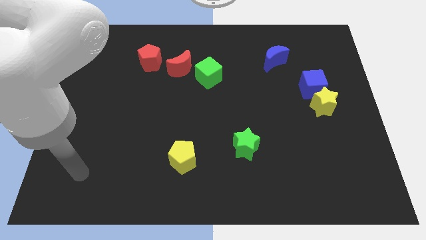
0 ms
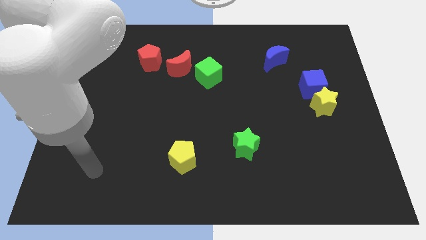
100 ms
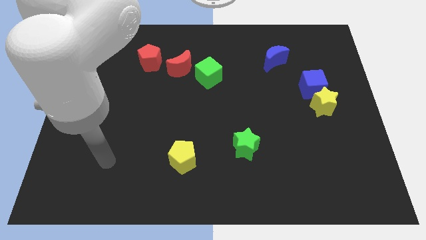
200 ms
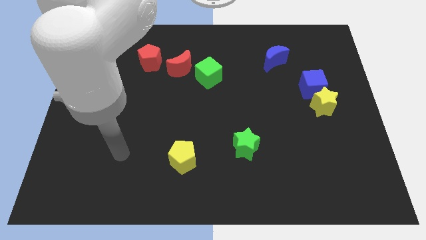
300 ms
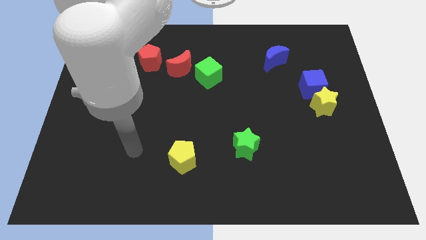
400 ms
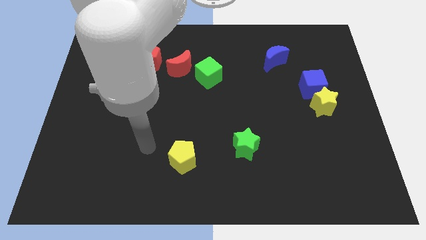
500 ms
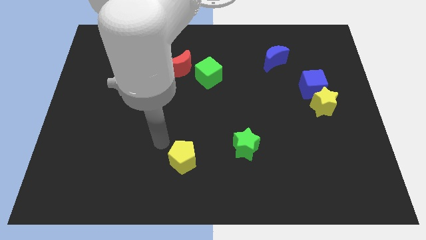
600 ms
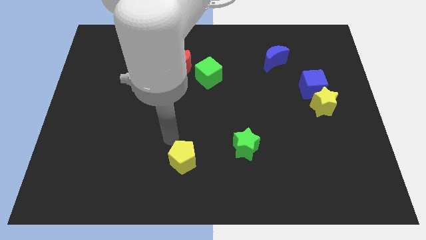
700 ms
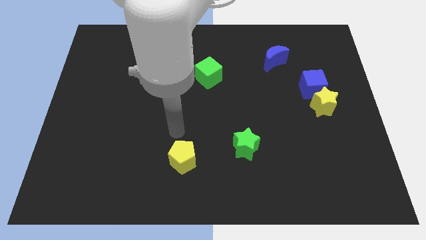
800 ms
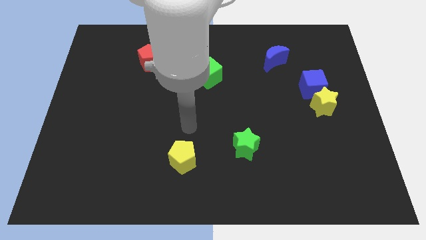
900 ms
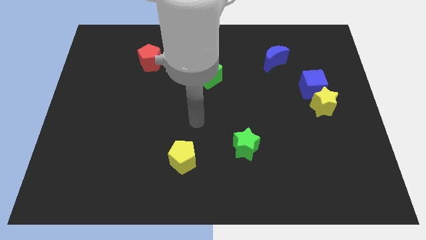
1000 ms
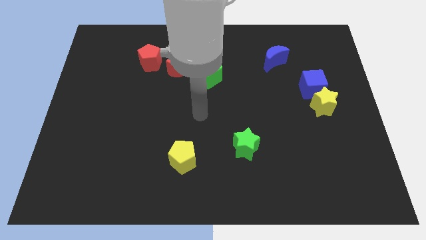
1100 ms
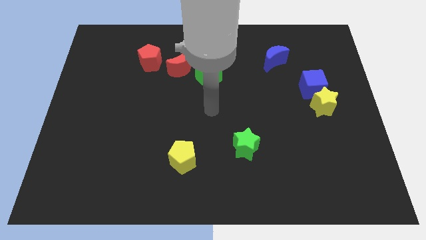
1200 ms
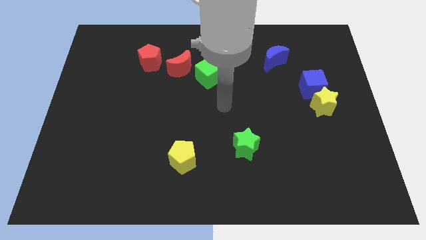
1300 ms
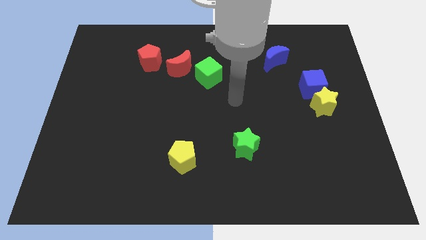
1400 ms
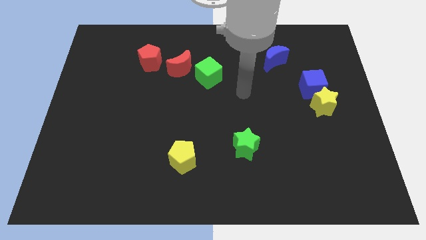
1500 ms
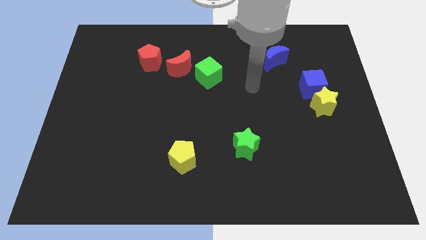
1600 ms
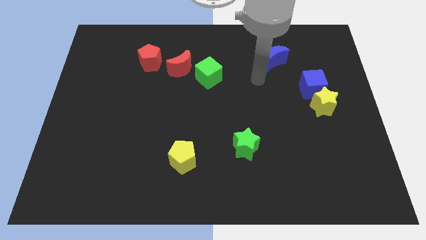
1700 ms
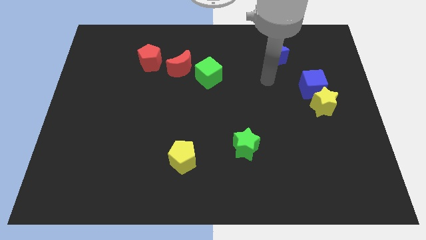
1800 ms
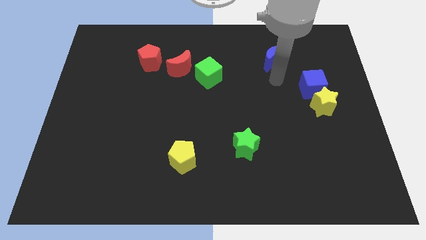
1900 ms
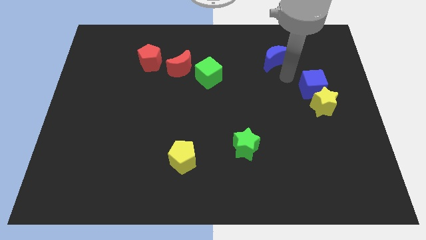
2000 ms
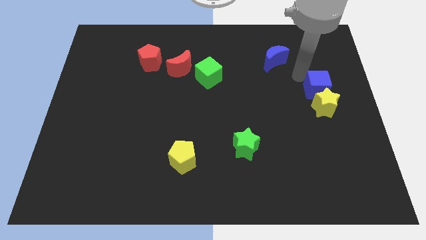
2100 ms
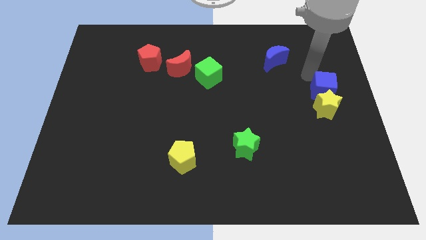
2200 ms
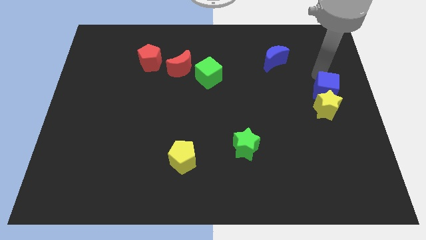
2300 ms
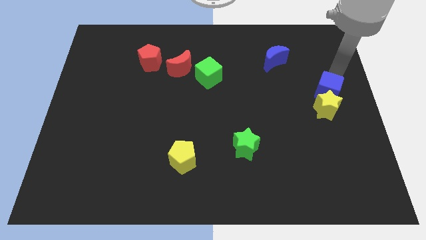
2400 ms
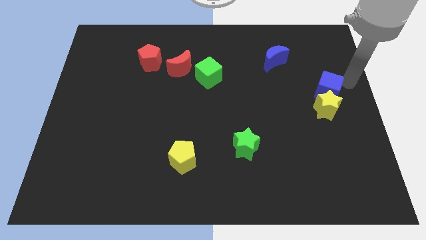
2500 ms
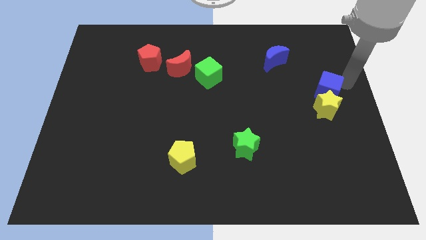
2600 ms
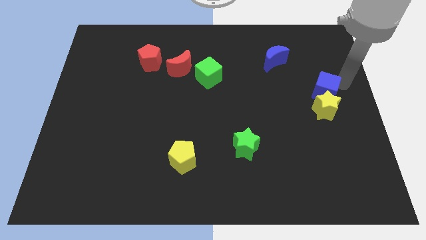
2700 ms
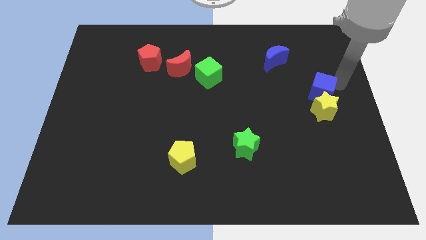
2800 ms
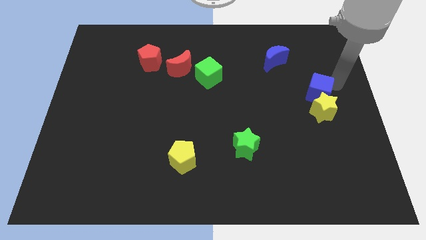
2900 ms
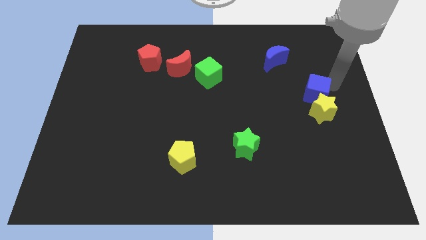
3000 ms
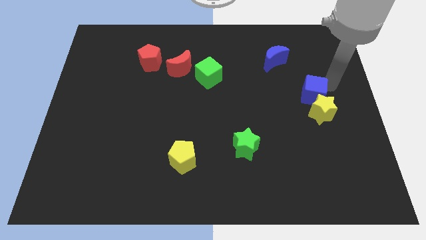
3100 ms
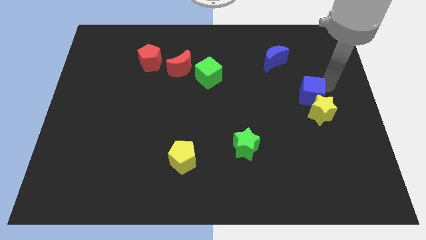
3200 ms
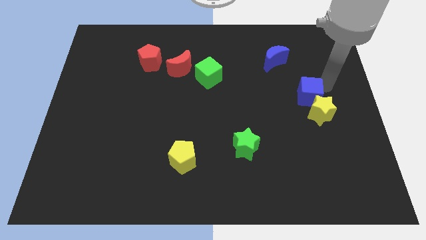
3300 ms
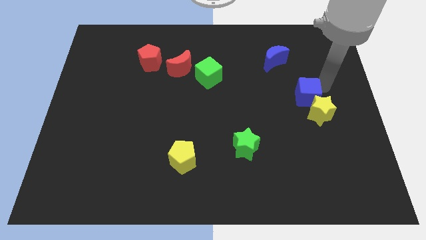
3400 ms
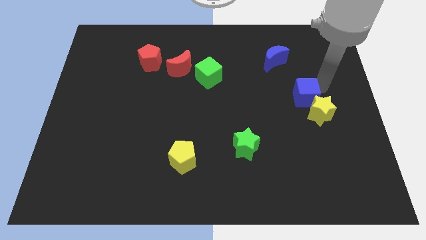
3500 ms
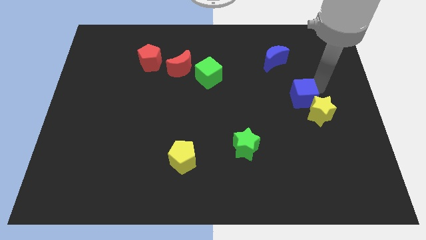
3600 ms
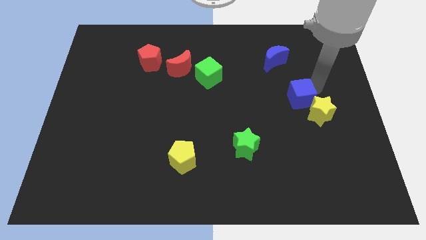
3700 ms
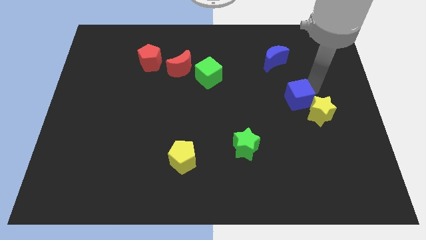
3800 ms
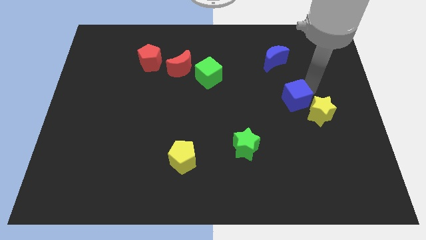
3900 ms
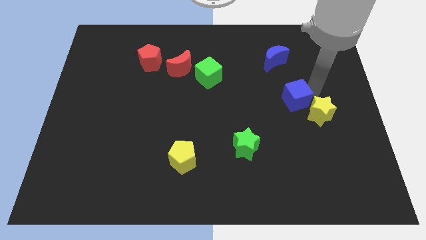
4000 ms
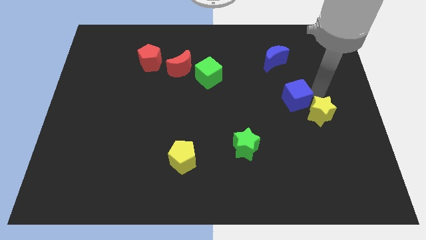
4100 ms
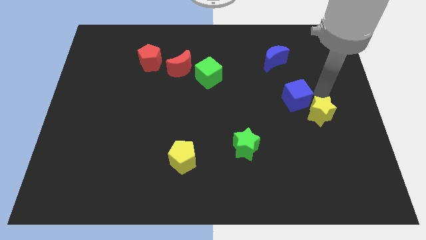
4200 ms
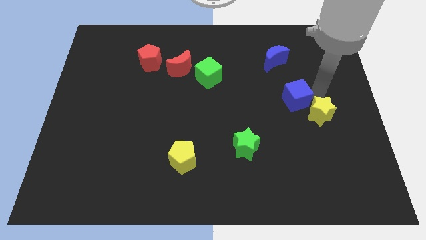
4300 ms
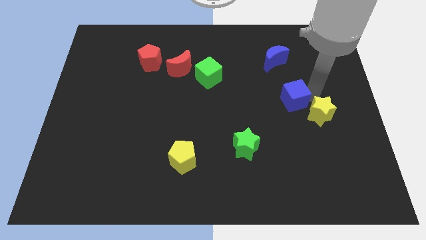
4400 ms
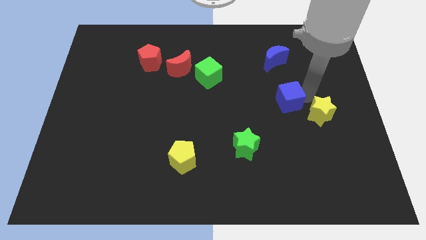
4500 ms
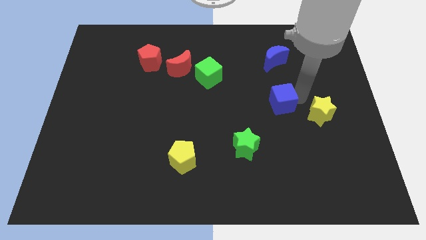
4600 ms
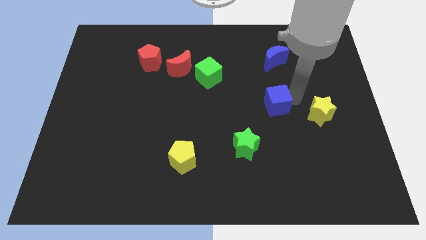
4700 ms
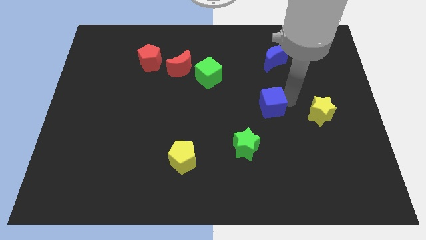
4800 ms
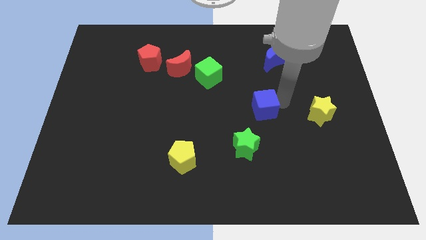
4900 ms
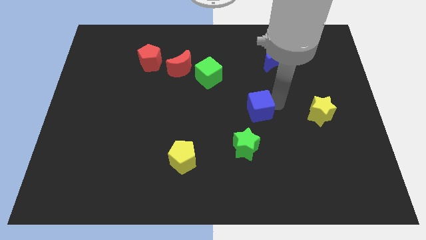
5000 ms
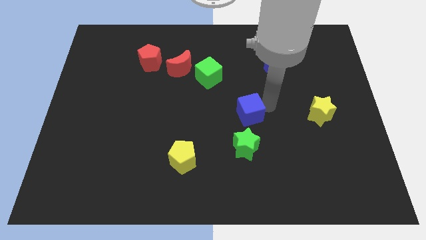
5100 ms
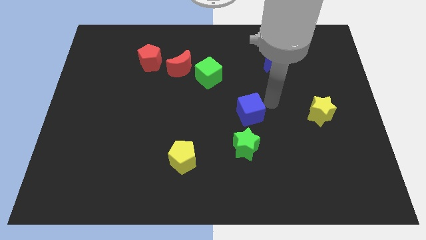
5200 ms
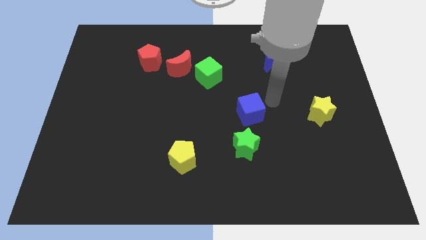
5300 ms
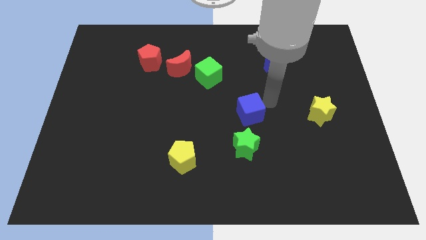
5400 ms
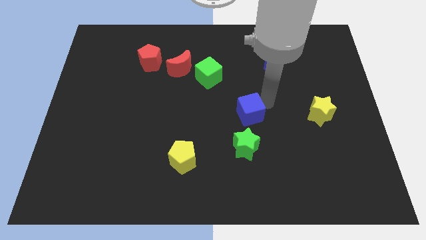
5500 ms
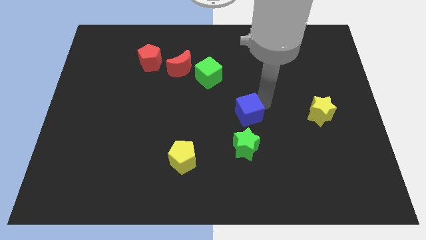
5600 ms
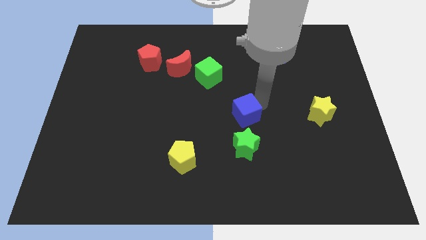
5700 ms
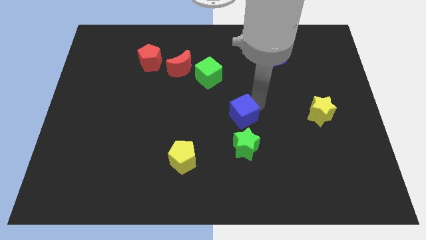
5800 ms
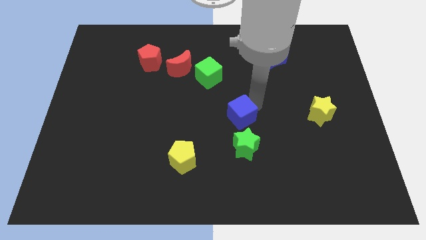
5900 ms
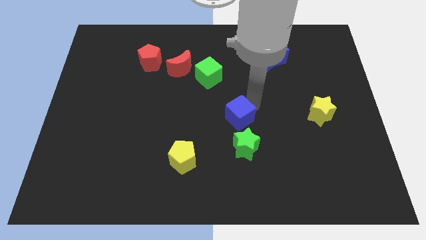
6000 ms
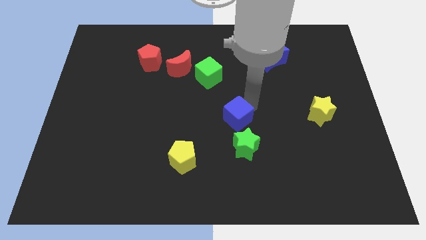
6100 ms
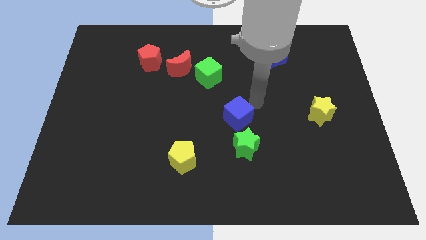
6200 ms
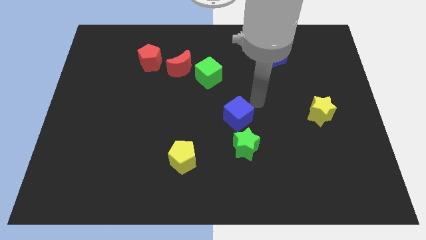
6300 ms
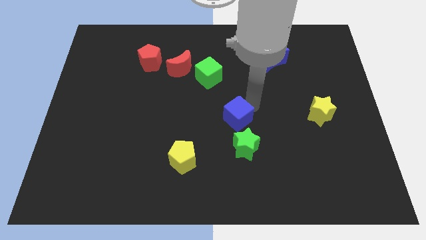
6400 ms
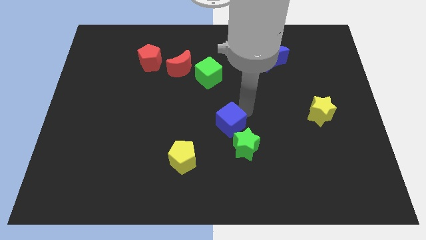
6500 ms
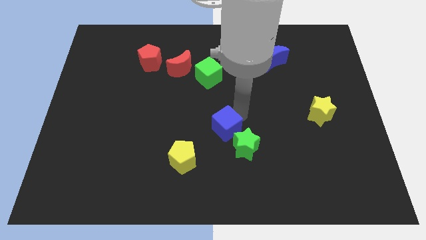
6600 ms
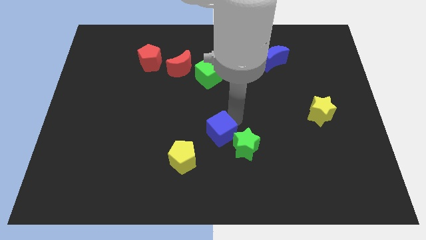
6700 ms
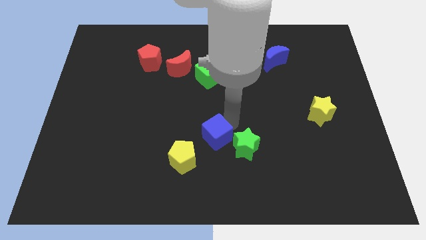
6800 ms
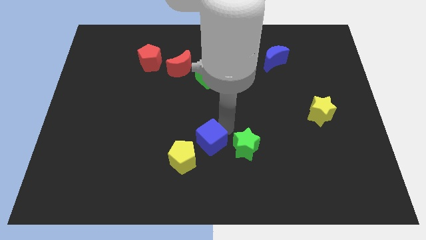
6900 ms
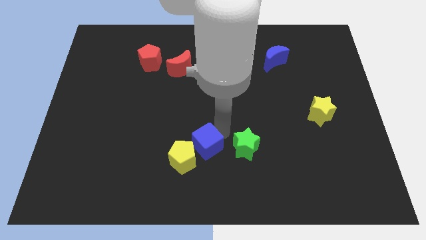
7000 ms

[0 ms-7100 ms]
move the blue cube close to the yellow pentagon
